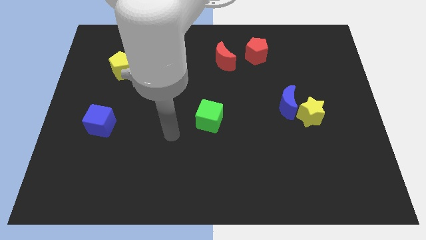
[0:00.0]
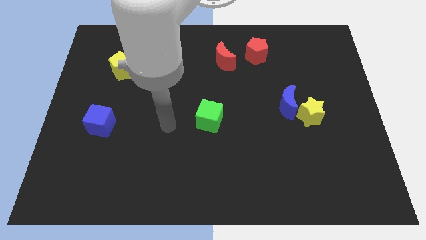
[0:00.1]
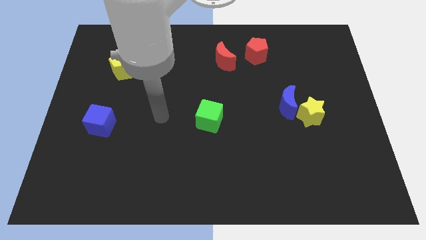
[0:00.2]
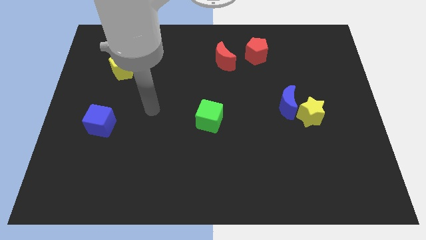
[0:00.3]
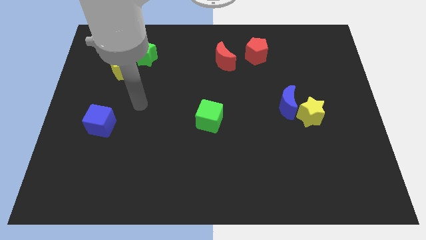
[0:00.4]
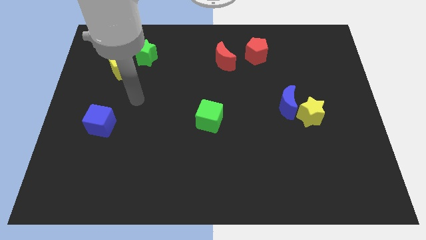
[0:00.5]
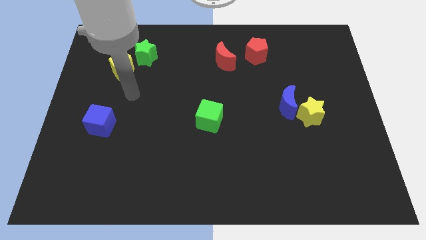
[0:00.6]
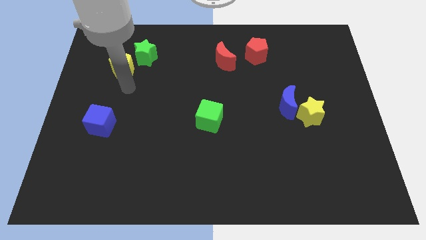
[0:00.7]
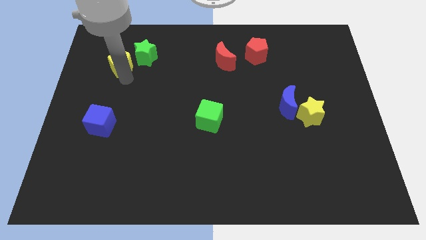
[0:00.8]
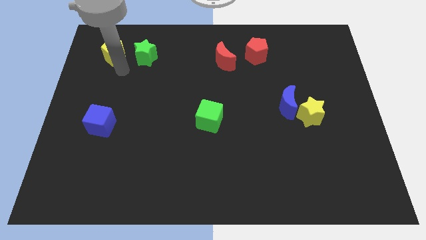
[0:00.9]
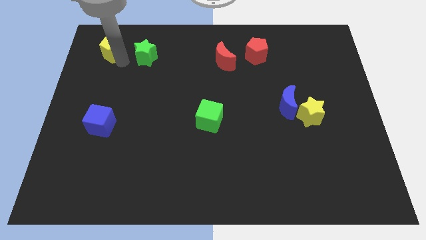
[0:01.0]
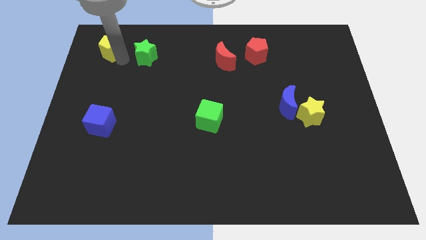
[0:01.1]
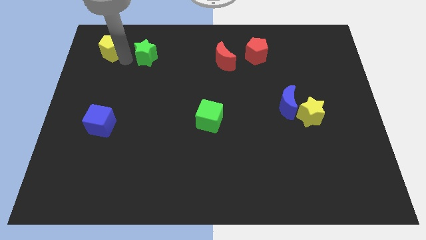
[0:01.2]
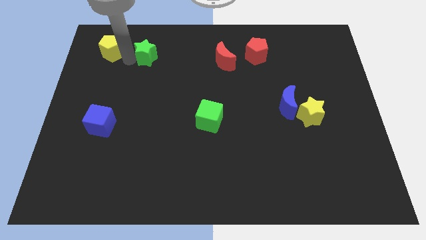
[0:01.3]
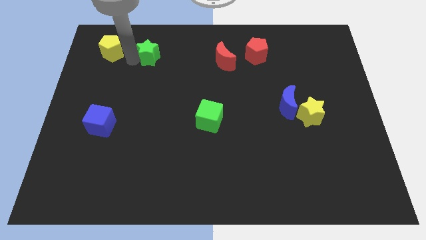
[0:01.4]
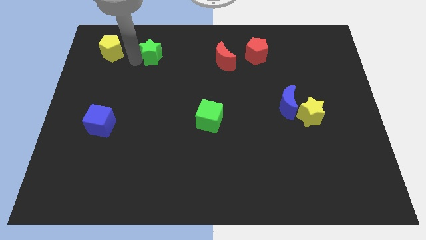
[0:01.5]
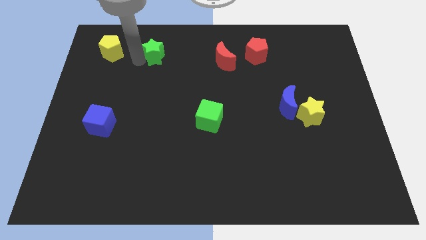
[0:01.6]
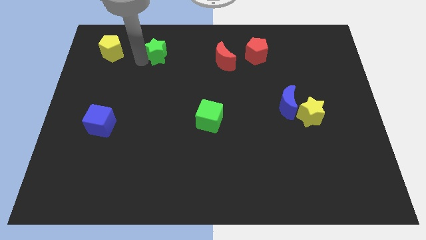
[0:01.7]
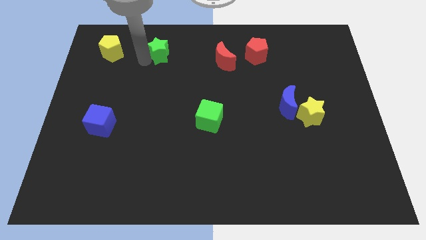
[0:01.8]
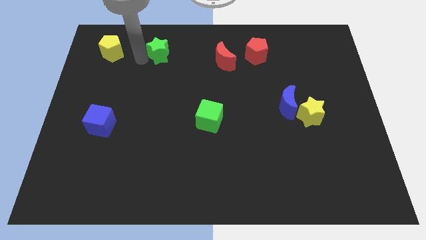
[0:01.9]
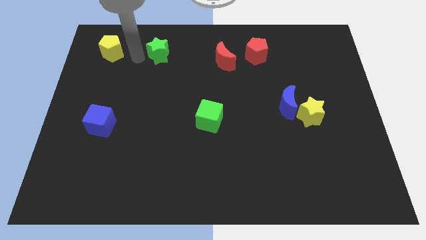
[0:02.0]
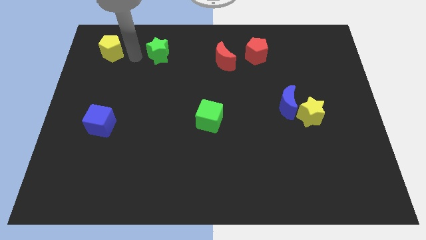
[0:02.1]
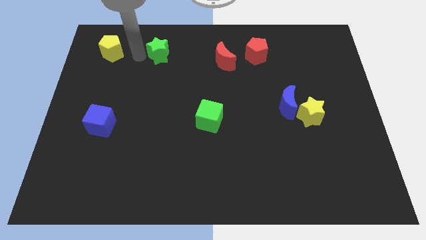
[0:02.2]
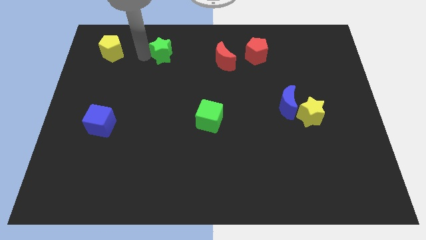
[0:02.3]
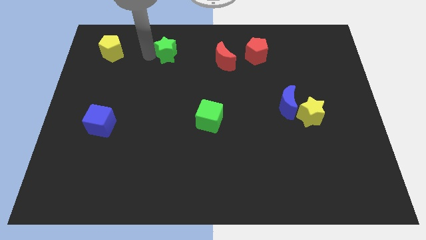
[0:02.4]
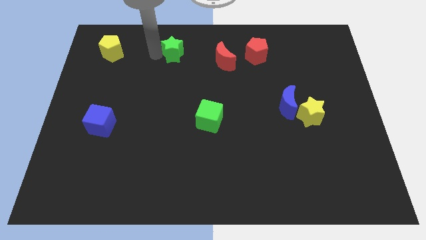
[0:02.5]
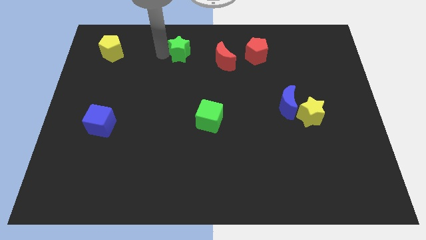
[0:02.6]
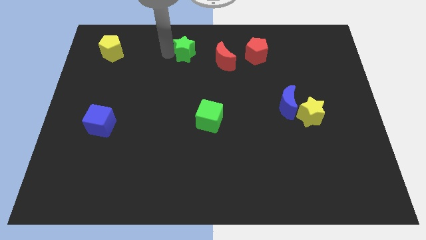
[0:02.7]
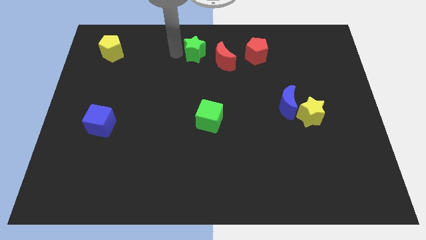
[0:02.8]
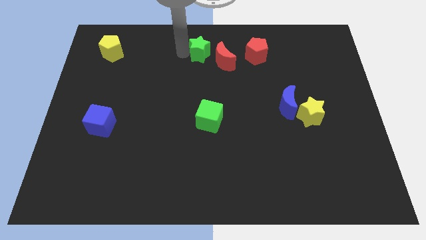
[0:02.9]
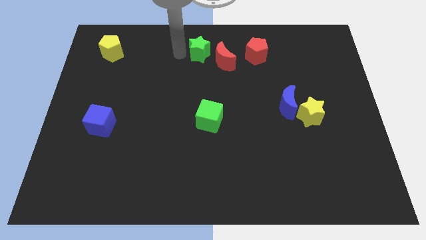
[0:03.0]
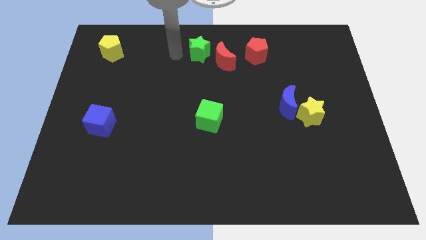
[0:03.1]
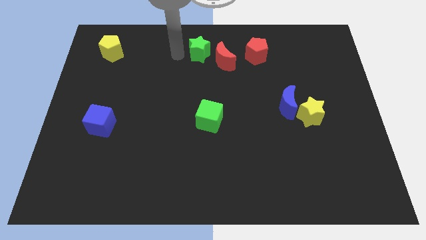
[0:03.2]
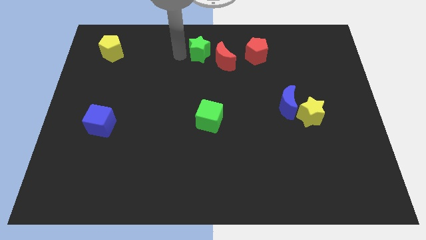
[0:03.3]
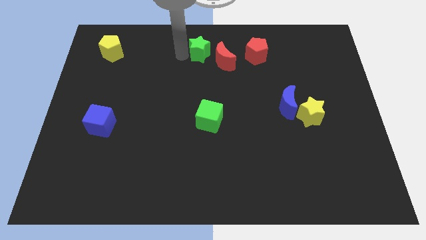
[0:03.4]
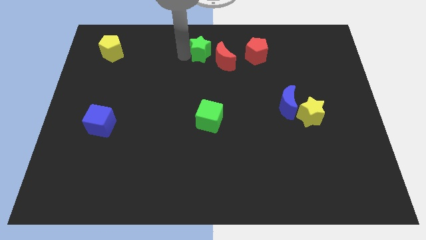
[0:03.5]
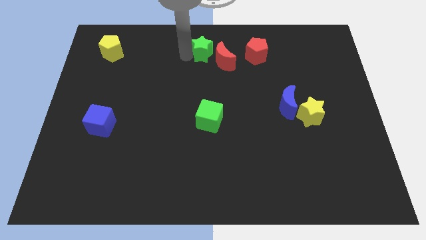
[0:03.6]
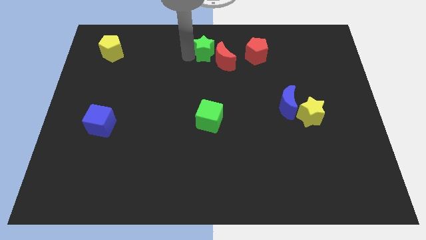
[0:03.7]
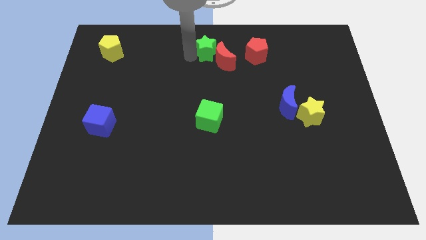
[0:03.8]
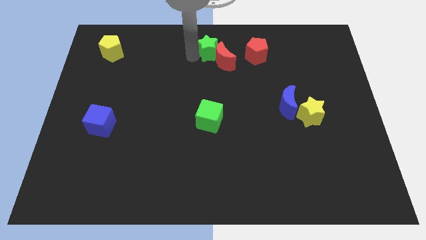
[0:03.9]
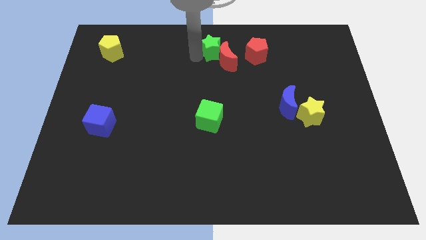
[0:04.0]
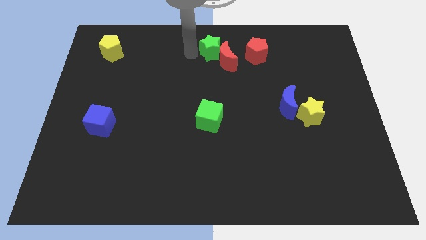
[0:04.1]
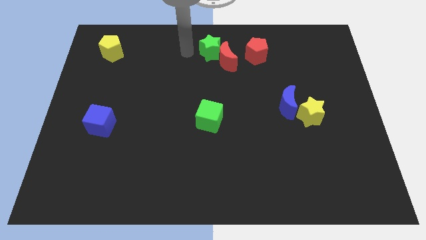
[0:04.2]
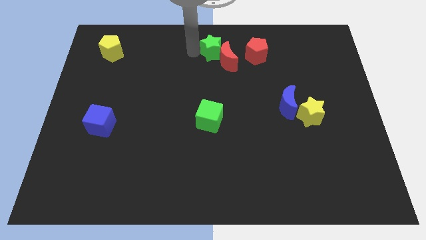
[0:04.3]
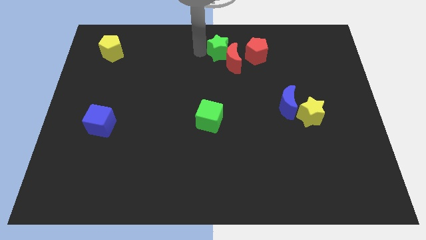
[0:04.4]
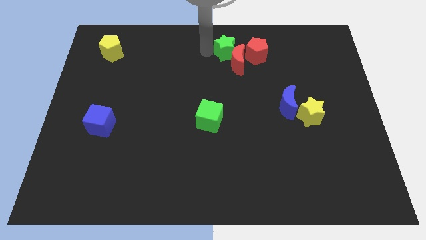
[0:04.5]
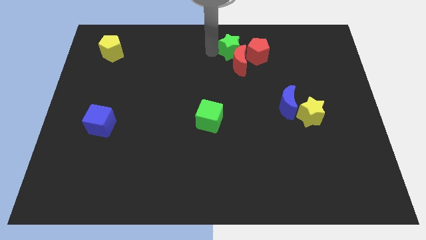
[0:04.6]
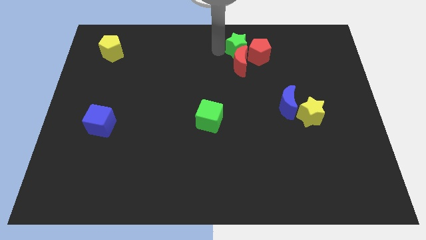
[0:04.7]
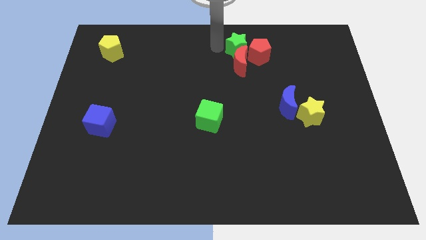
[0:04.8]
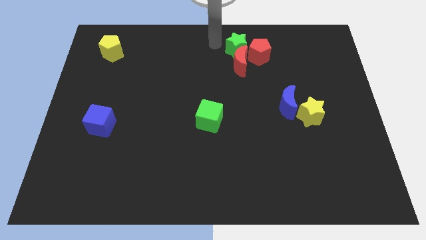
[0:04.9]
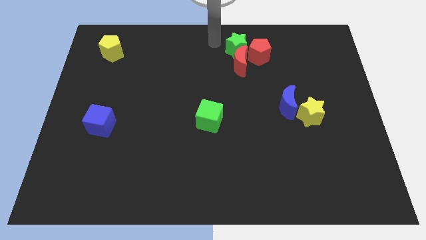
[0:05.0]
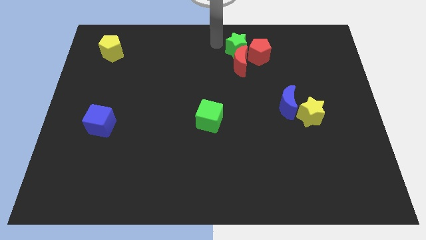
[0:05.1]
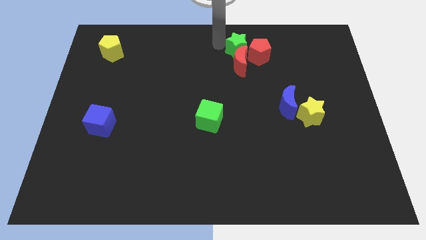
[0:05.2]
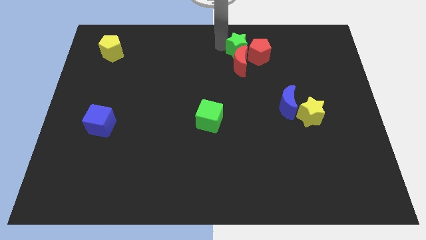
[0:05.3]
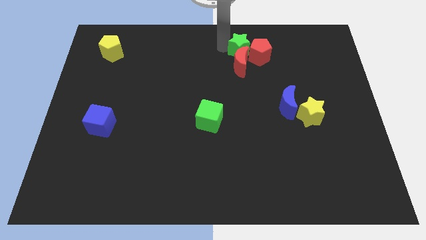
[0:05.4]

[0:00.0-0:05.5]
put the green star to the red pentagon

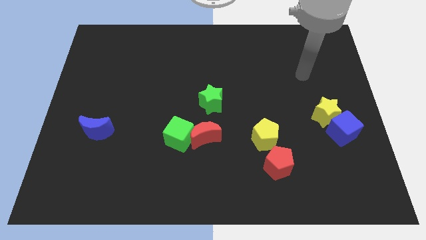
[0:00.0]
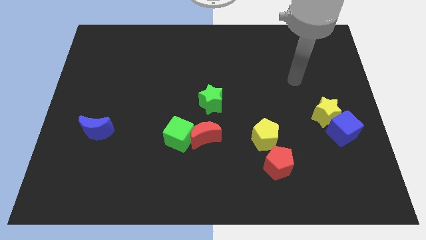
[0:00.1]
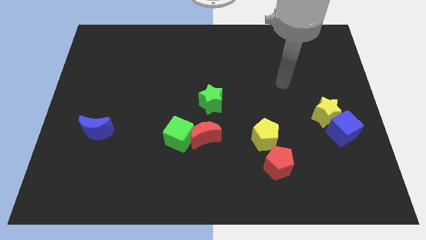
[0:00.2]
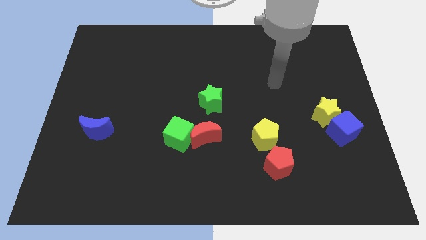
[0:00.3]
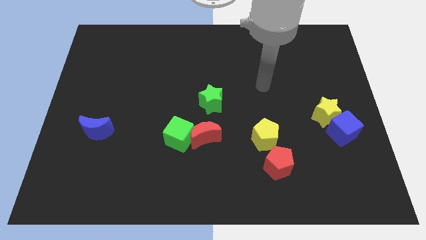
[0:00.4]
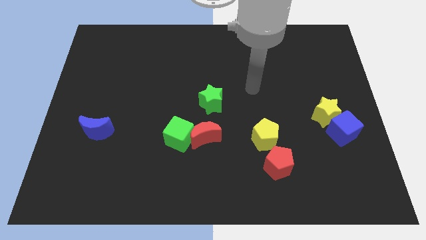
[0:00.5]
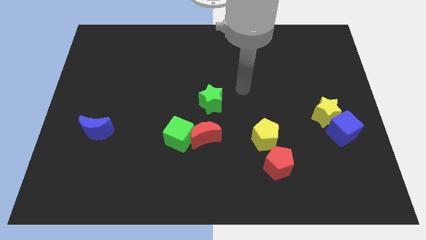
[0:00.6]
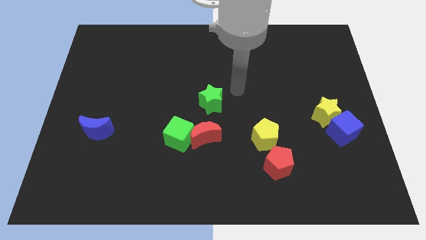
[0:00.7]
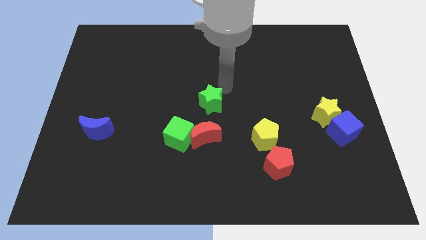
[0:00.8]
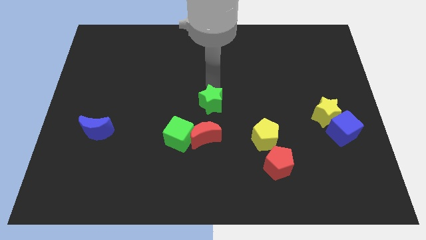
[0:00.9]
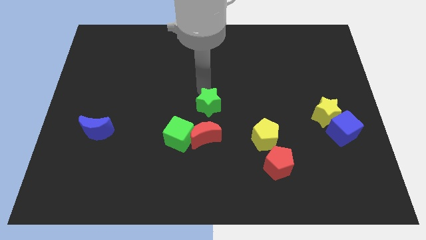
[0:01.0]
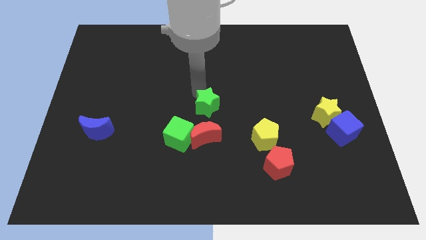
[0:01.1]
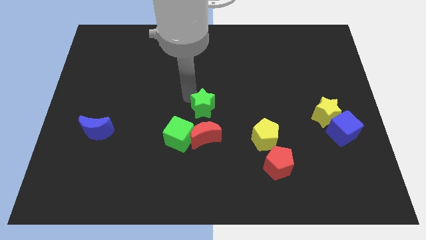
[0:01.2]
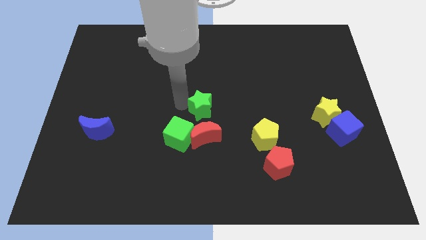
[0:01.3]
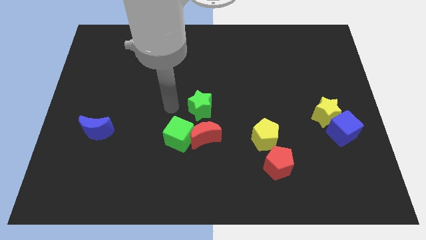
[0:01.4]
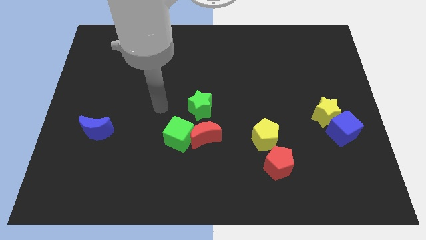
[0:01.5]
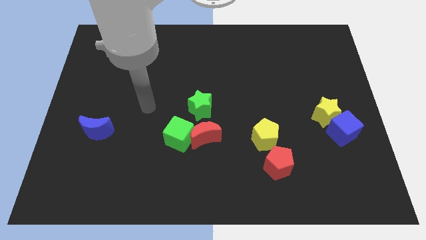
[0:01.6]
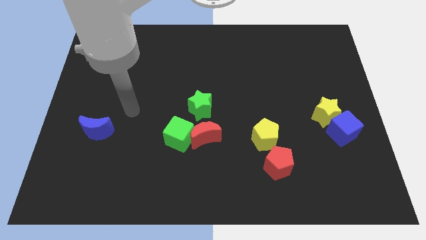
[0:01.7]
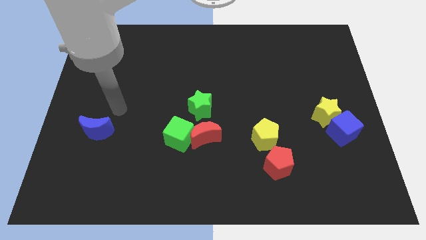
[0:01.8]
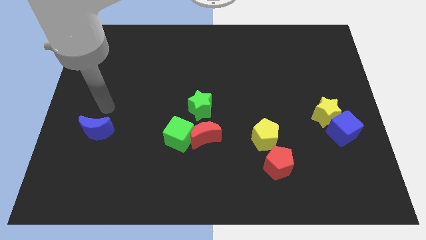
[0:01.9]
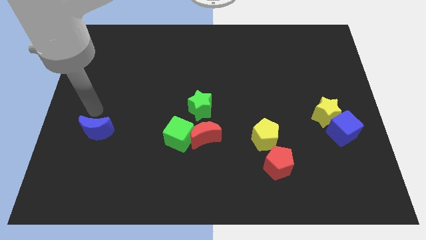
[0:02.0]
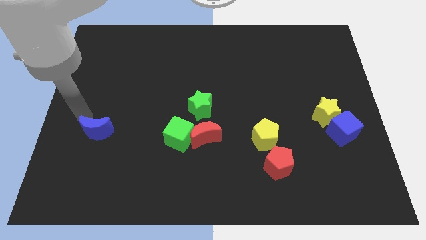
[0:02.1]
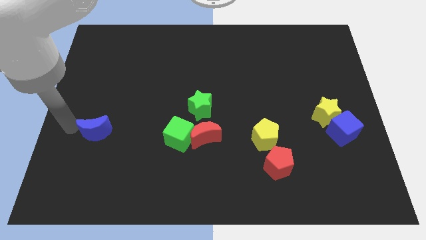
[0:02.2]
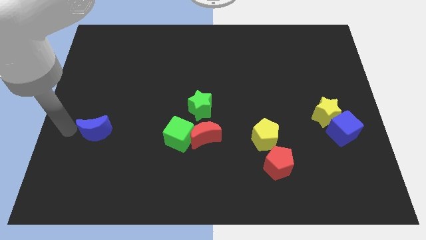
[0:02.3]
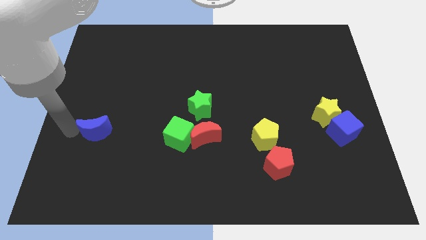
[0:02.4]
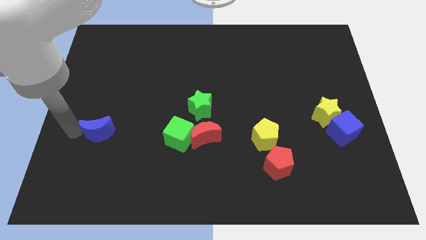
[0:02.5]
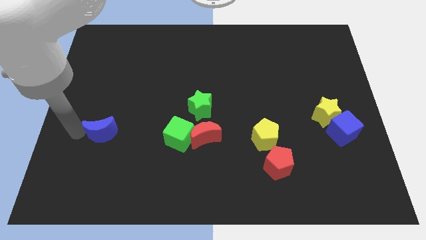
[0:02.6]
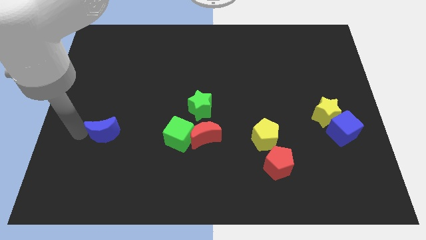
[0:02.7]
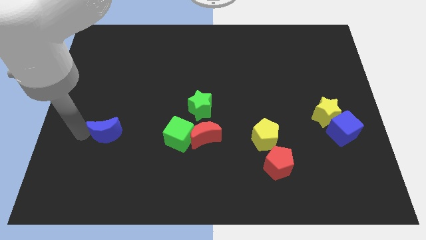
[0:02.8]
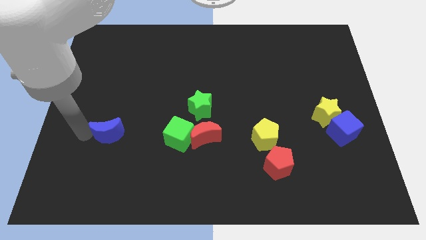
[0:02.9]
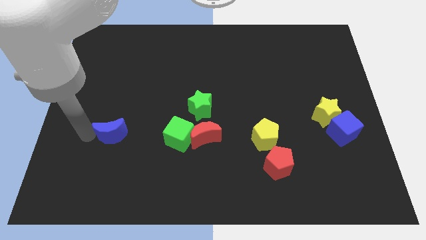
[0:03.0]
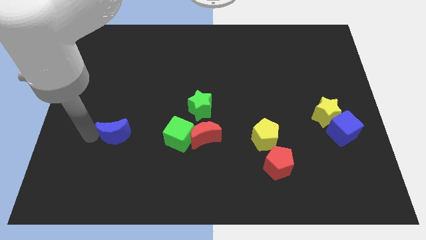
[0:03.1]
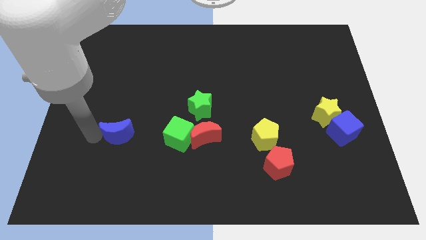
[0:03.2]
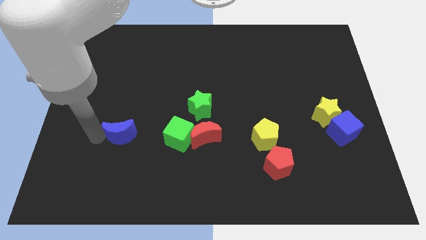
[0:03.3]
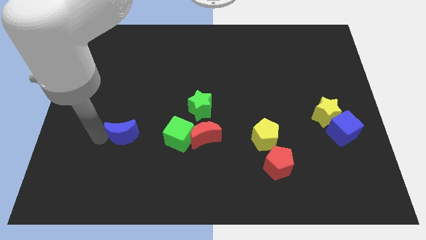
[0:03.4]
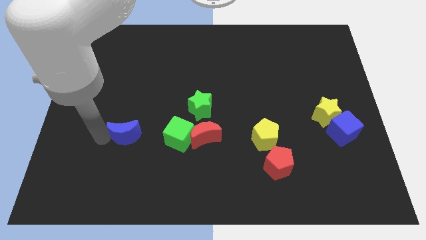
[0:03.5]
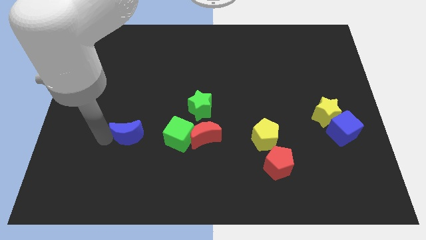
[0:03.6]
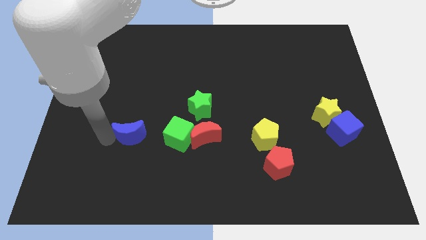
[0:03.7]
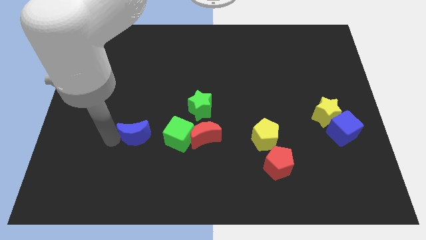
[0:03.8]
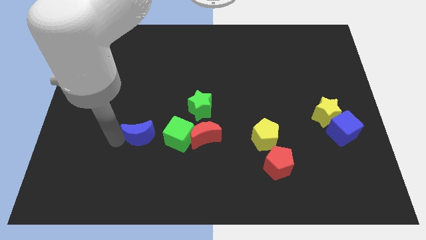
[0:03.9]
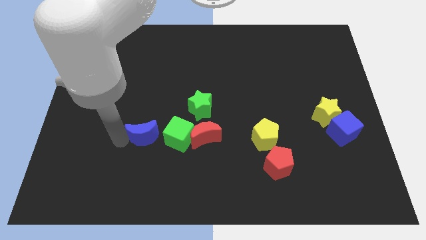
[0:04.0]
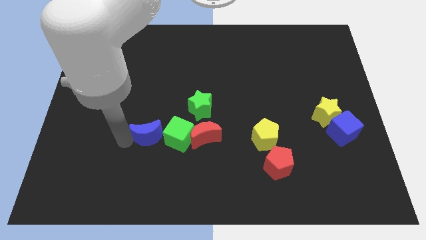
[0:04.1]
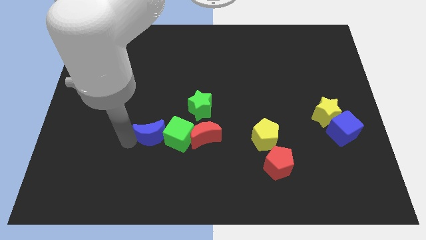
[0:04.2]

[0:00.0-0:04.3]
move the blue moon next to the green cube
